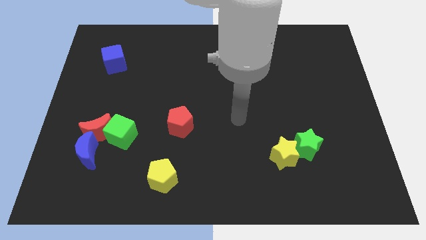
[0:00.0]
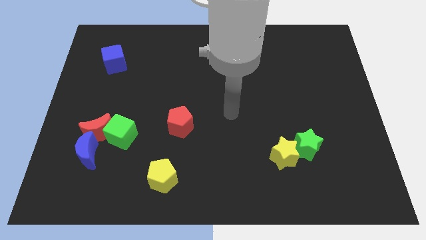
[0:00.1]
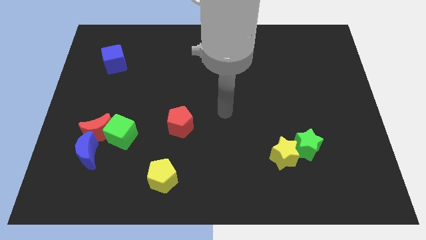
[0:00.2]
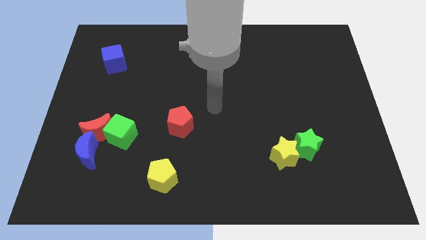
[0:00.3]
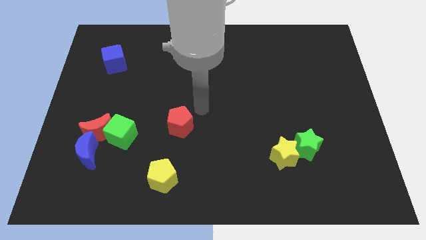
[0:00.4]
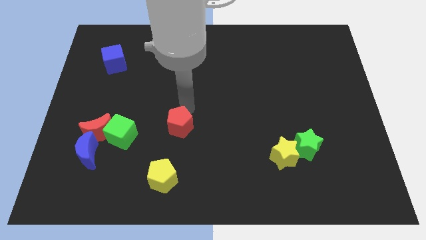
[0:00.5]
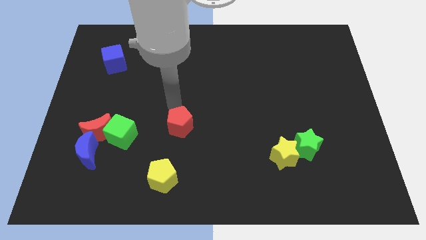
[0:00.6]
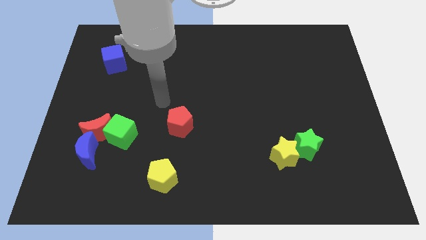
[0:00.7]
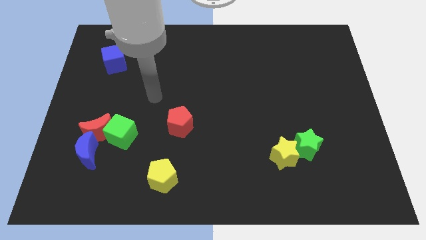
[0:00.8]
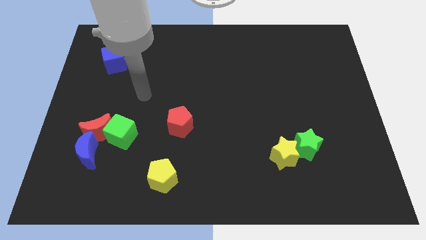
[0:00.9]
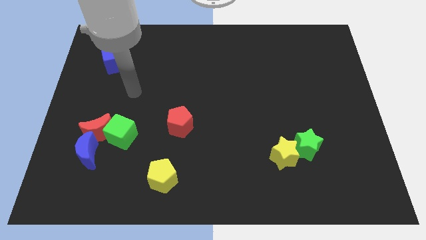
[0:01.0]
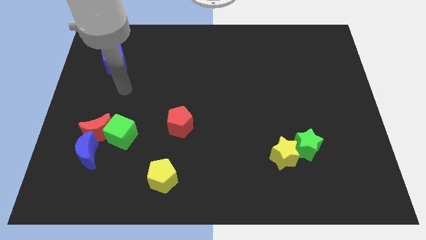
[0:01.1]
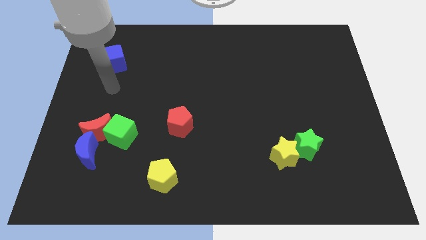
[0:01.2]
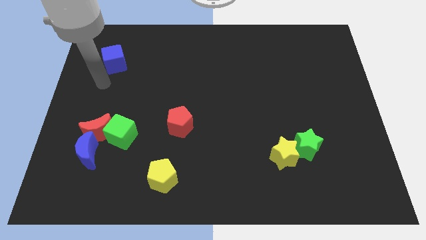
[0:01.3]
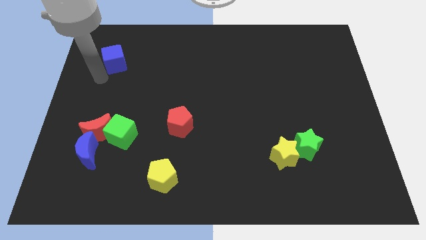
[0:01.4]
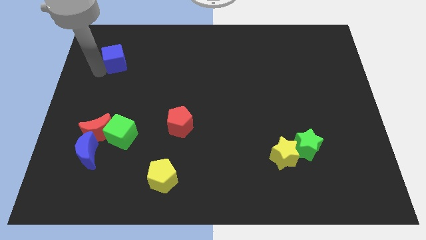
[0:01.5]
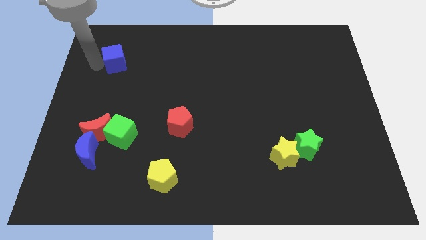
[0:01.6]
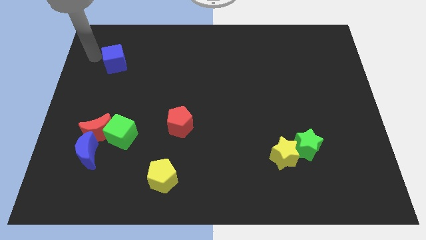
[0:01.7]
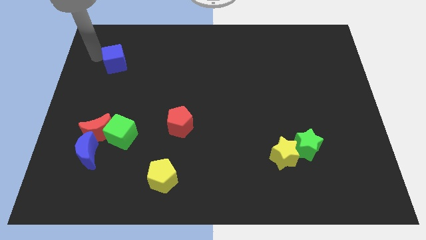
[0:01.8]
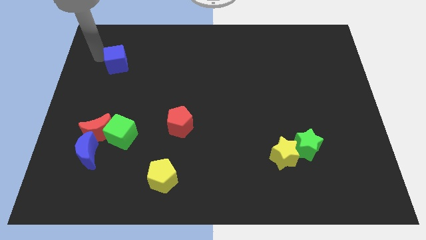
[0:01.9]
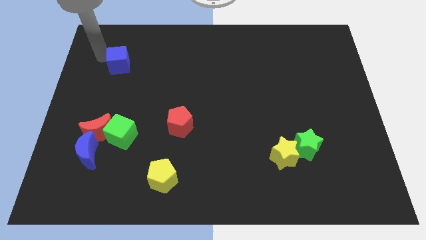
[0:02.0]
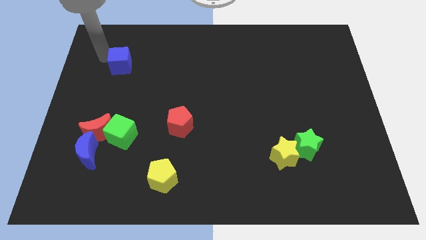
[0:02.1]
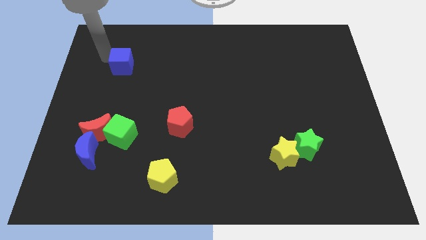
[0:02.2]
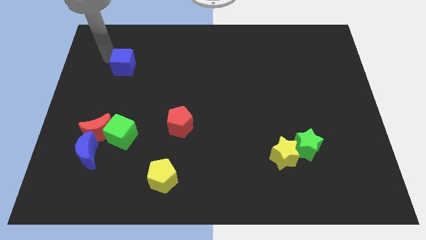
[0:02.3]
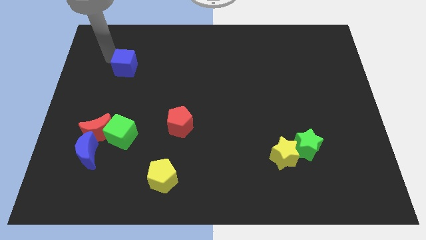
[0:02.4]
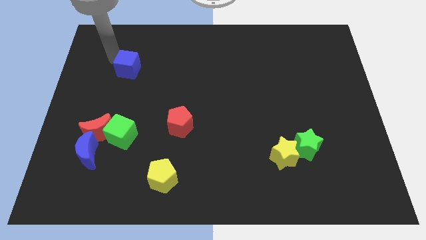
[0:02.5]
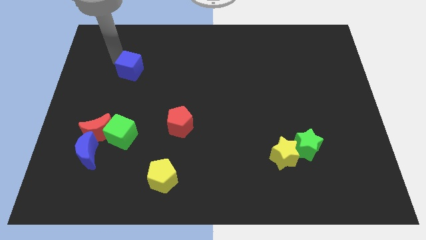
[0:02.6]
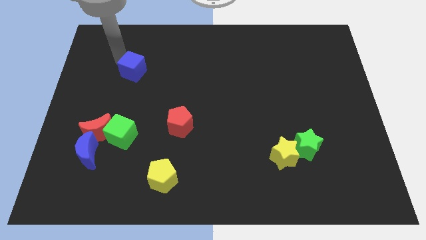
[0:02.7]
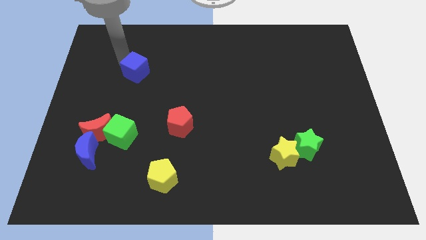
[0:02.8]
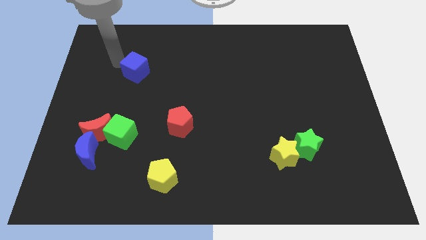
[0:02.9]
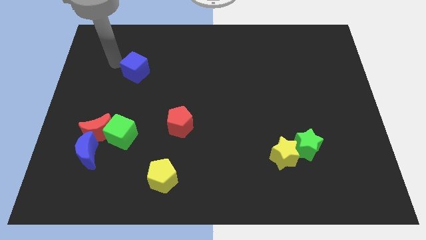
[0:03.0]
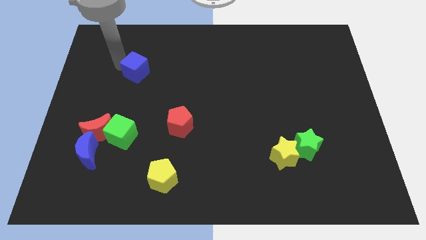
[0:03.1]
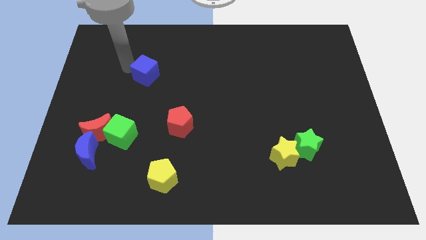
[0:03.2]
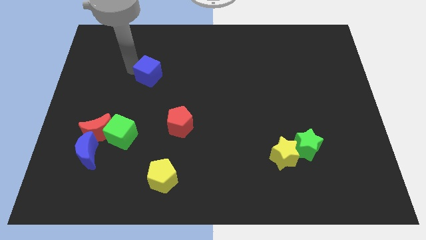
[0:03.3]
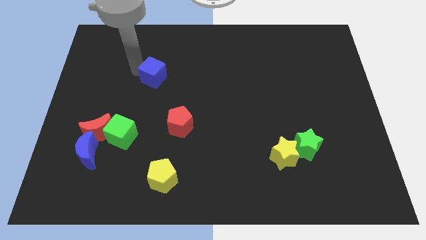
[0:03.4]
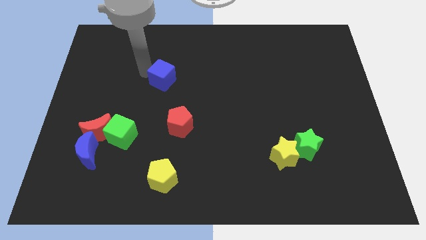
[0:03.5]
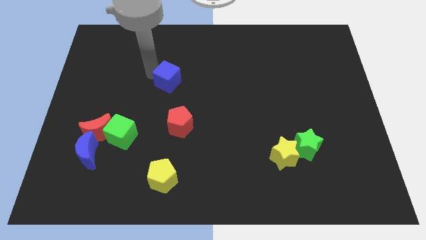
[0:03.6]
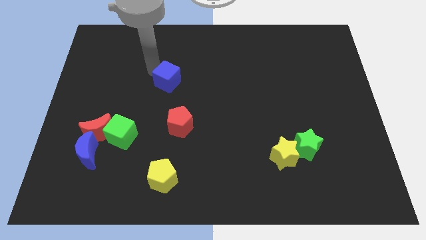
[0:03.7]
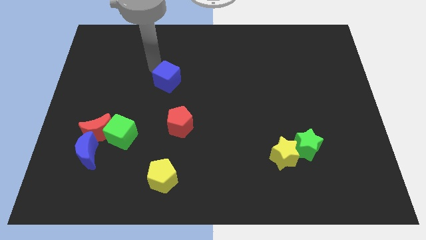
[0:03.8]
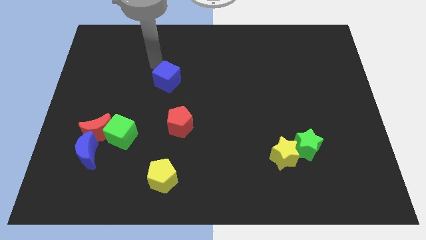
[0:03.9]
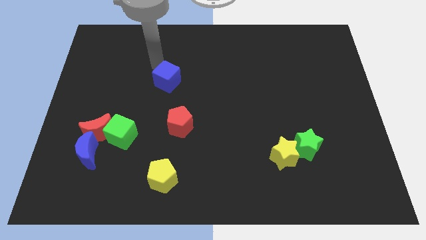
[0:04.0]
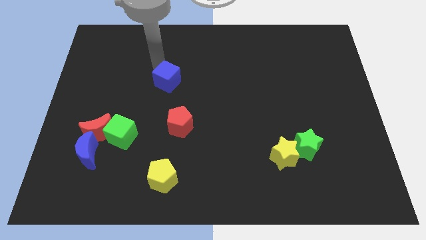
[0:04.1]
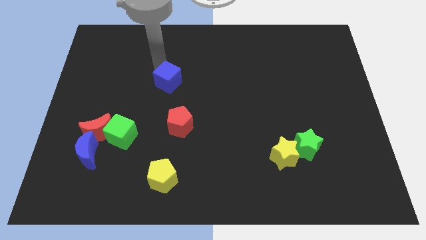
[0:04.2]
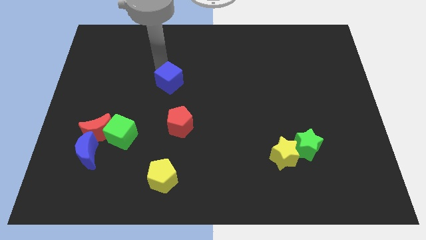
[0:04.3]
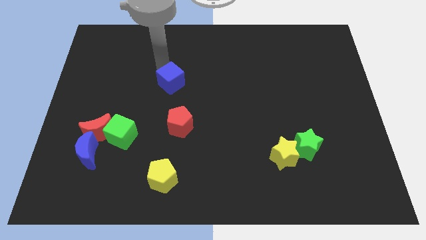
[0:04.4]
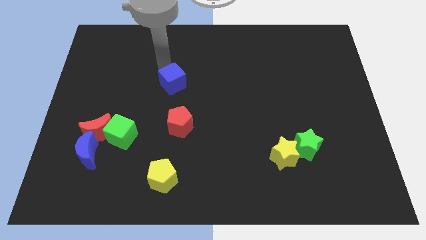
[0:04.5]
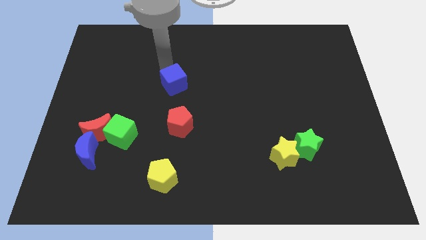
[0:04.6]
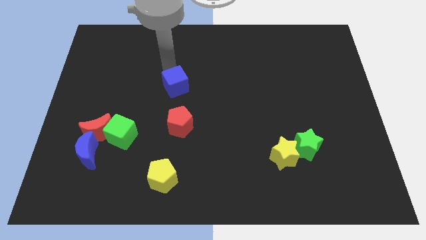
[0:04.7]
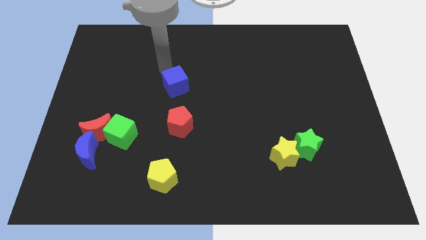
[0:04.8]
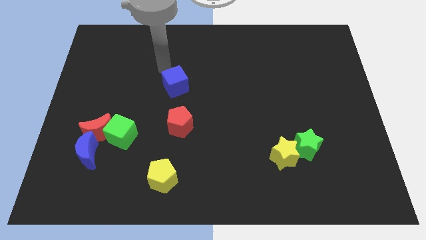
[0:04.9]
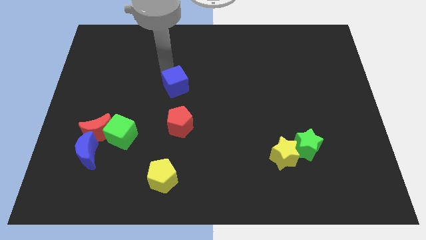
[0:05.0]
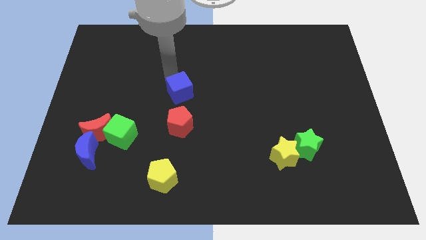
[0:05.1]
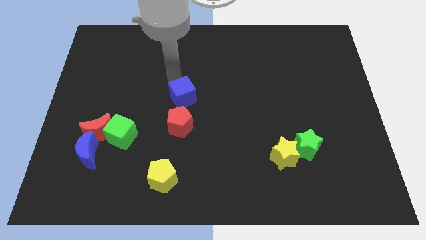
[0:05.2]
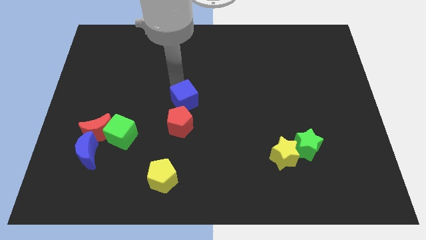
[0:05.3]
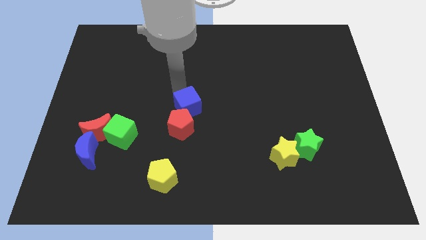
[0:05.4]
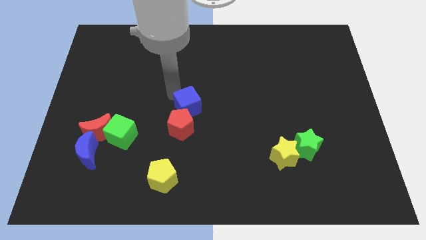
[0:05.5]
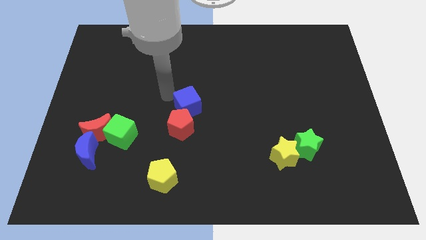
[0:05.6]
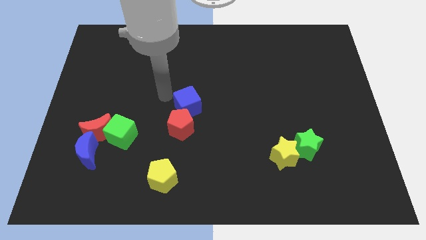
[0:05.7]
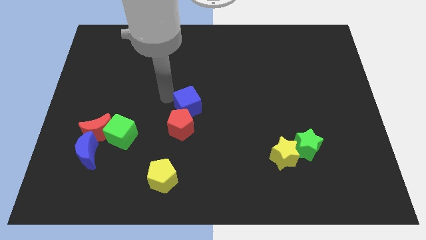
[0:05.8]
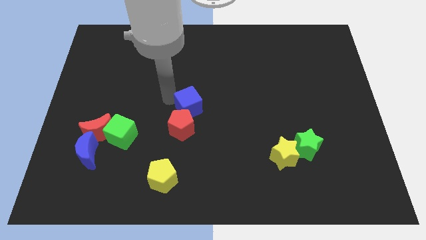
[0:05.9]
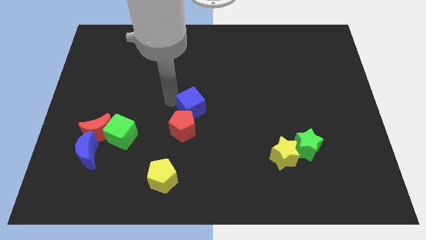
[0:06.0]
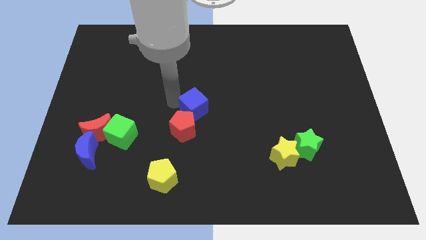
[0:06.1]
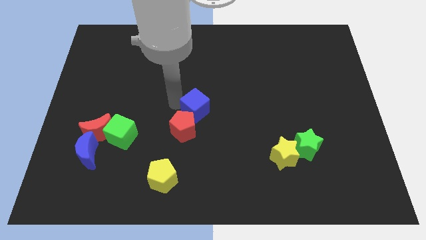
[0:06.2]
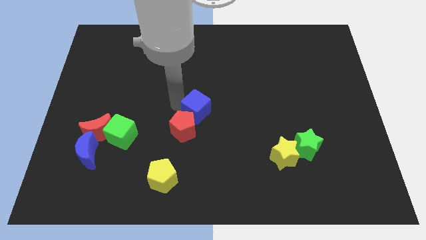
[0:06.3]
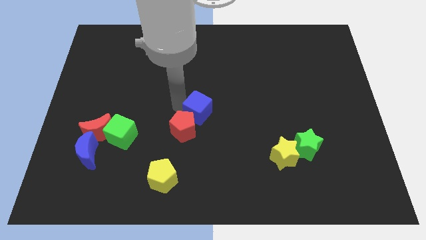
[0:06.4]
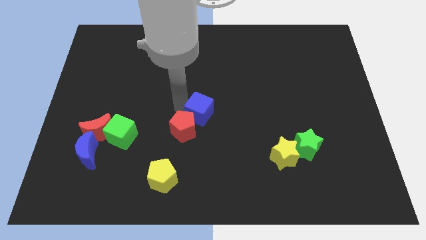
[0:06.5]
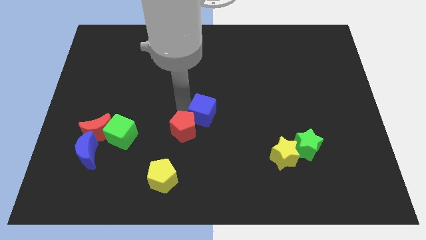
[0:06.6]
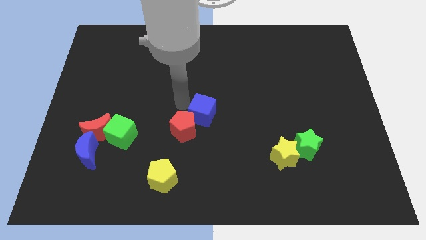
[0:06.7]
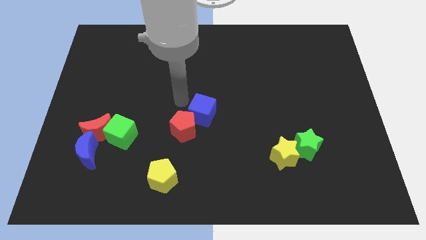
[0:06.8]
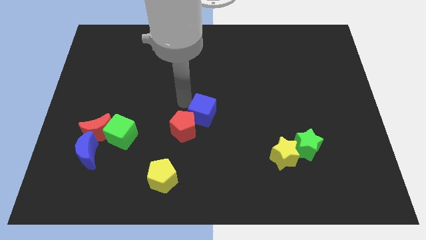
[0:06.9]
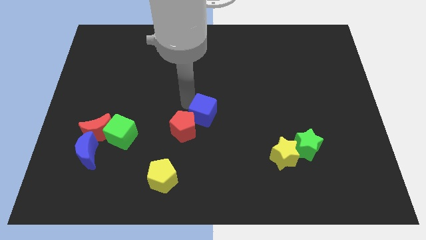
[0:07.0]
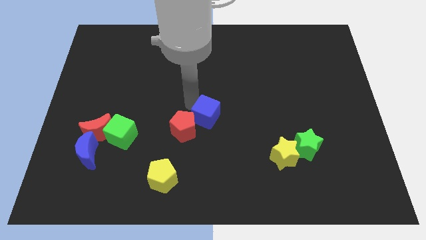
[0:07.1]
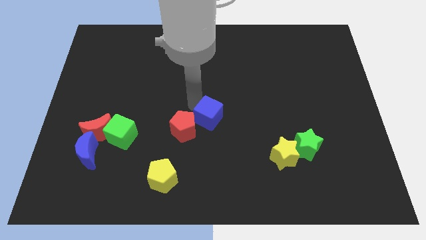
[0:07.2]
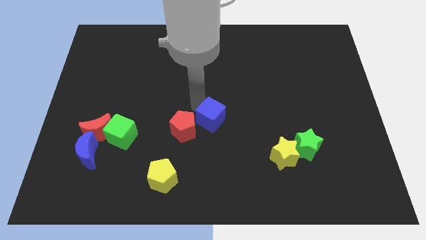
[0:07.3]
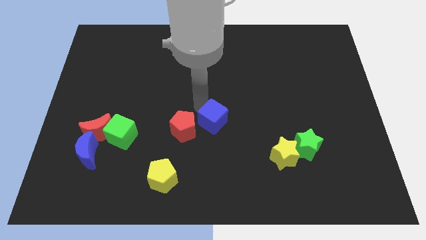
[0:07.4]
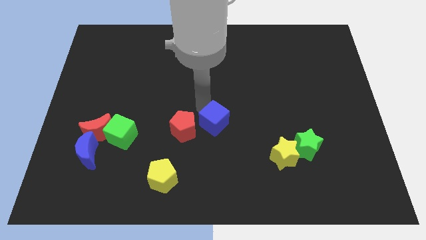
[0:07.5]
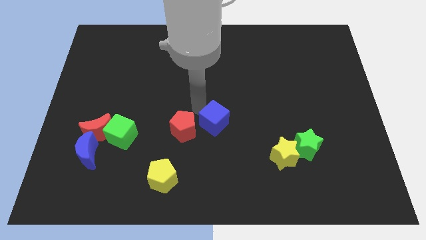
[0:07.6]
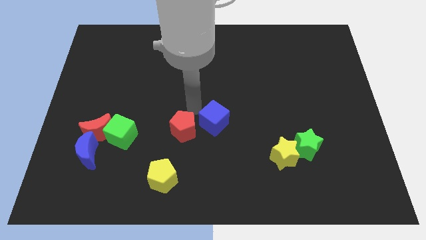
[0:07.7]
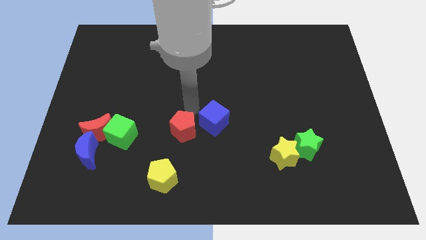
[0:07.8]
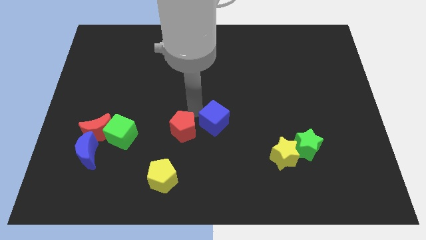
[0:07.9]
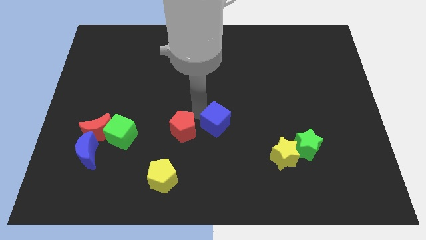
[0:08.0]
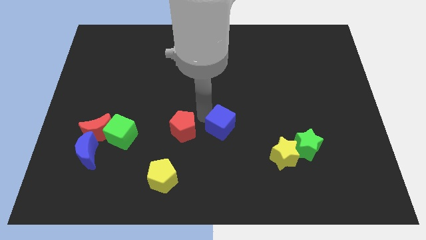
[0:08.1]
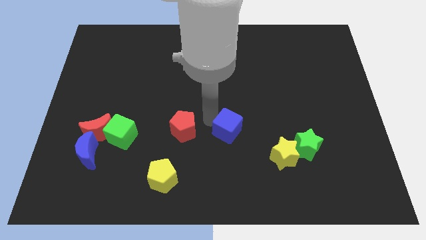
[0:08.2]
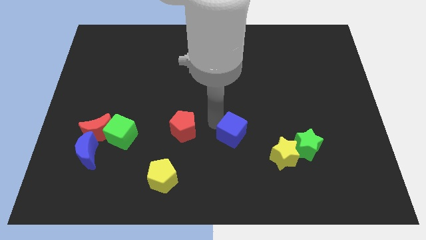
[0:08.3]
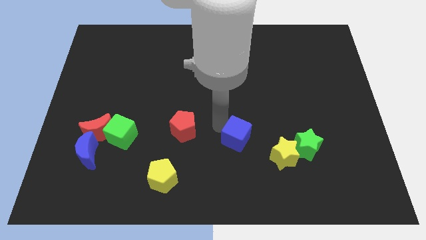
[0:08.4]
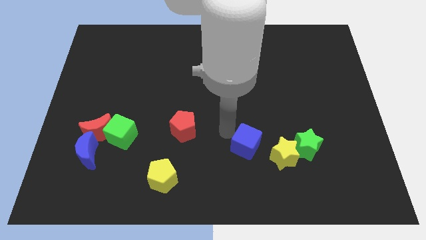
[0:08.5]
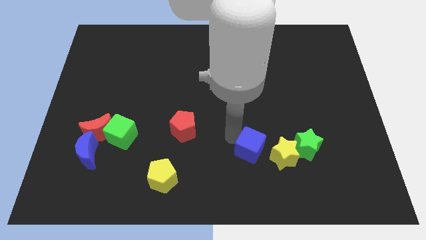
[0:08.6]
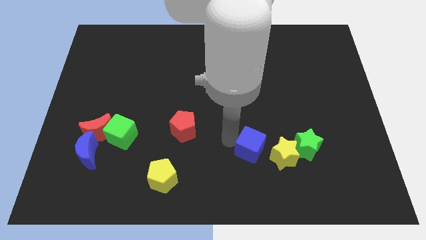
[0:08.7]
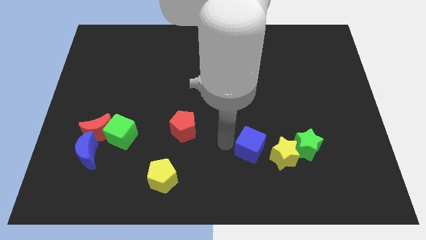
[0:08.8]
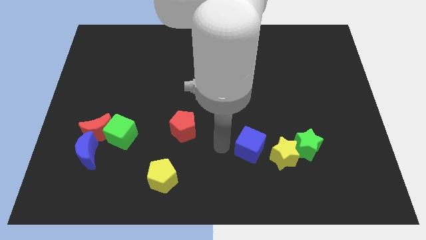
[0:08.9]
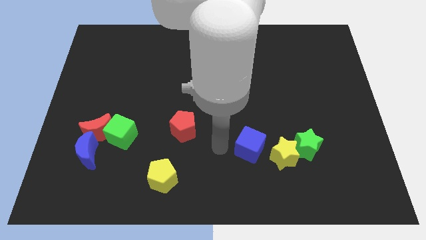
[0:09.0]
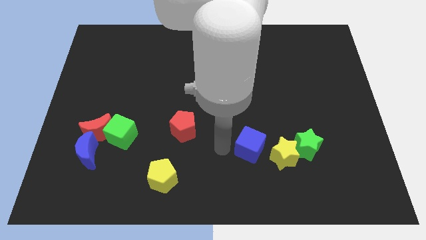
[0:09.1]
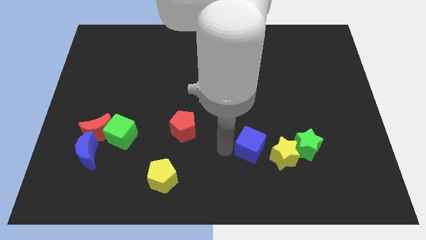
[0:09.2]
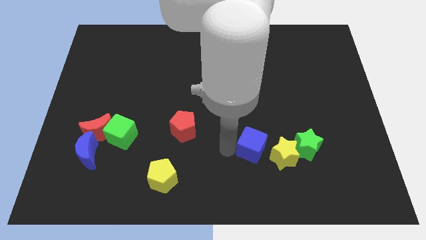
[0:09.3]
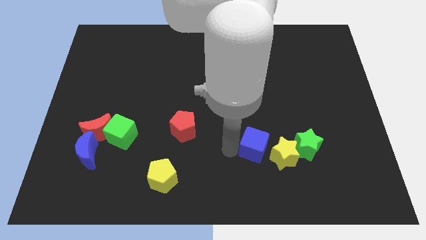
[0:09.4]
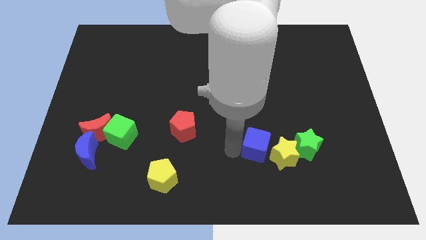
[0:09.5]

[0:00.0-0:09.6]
put the blue cube towards the yellow star
